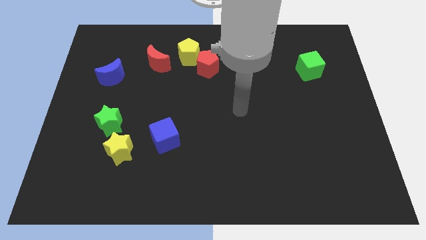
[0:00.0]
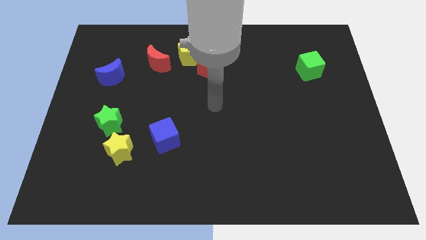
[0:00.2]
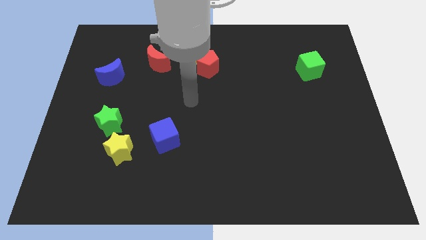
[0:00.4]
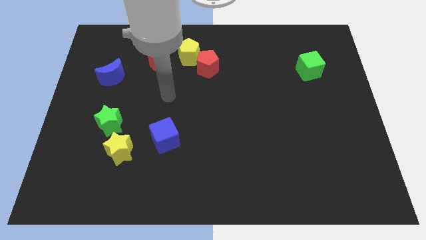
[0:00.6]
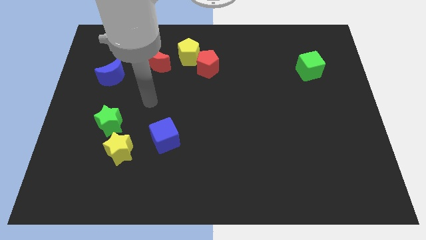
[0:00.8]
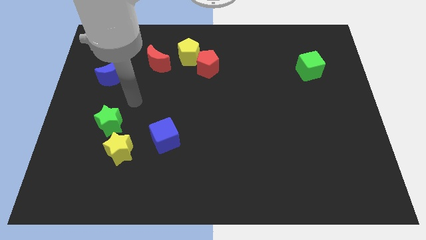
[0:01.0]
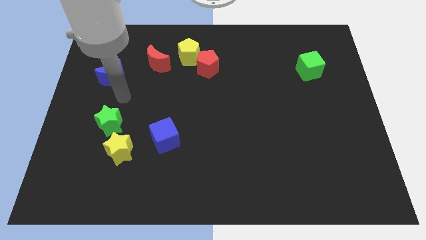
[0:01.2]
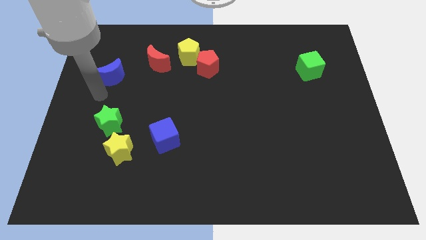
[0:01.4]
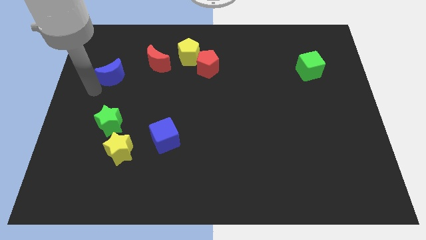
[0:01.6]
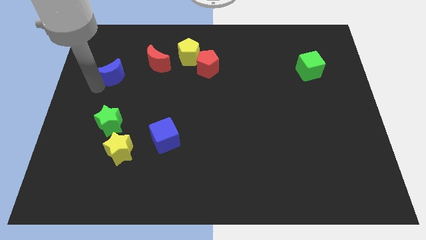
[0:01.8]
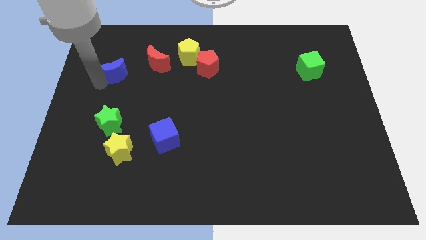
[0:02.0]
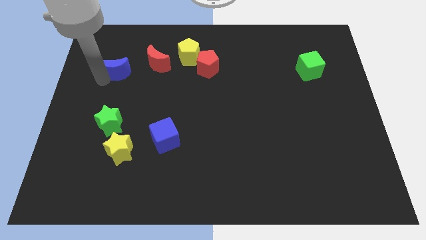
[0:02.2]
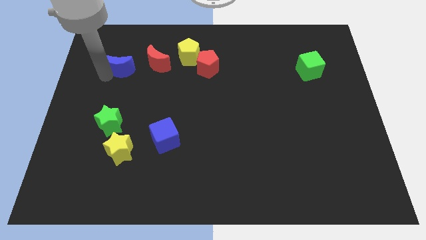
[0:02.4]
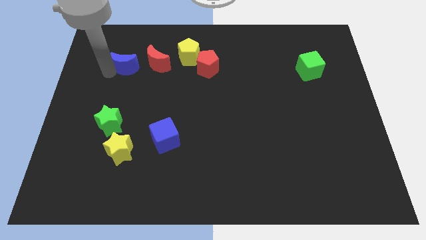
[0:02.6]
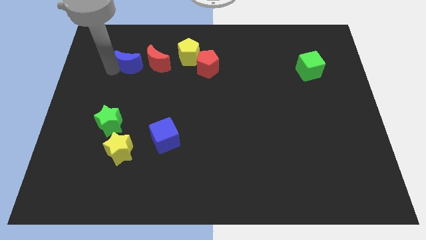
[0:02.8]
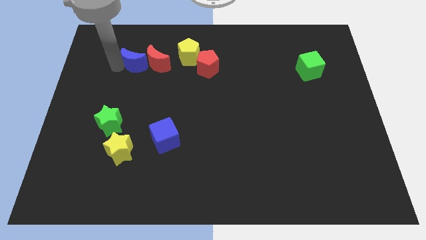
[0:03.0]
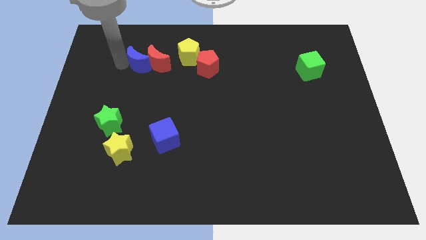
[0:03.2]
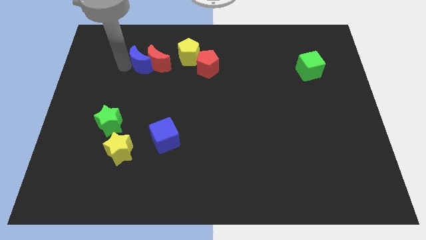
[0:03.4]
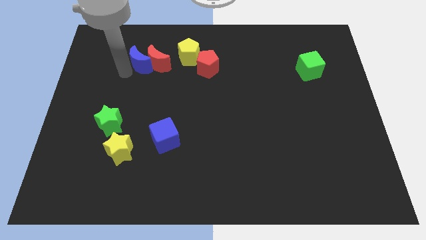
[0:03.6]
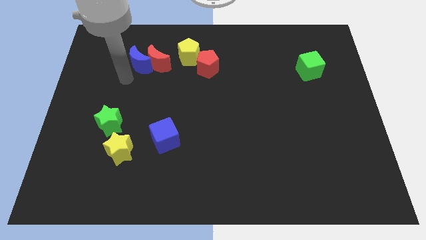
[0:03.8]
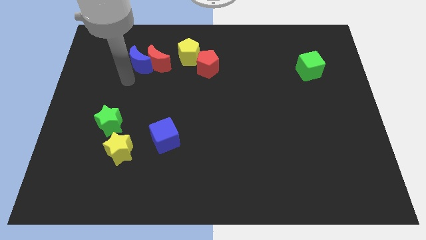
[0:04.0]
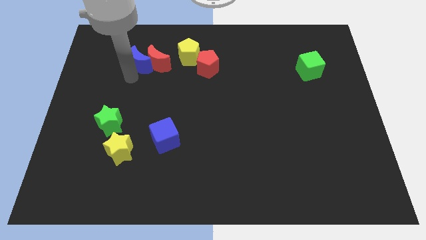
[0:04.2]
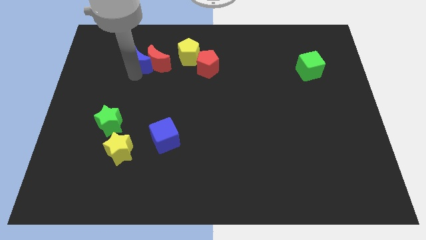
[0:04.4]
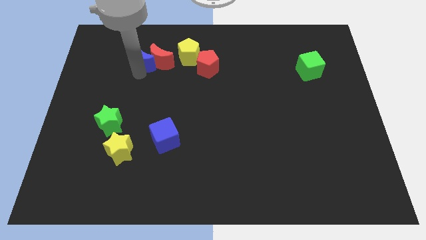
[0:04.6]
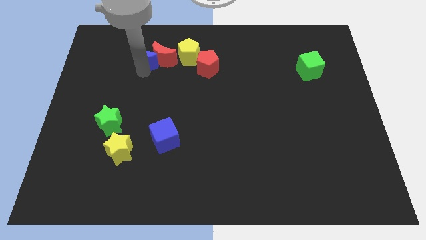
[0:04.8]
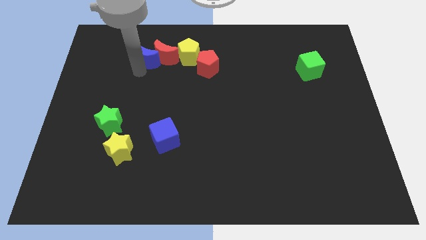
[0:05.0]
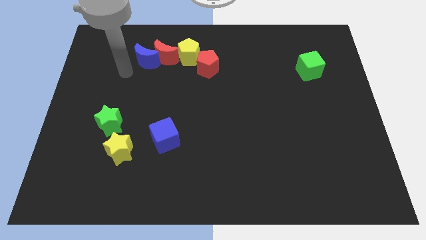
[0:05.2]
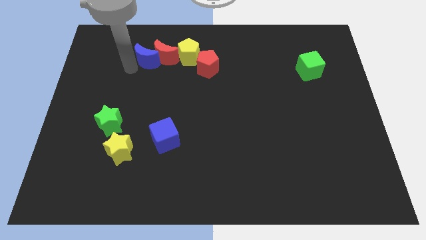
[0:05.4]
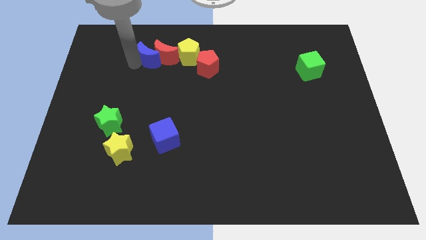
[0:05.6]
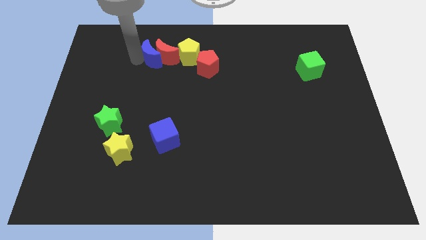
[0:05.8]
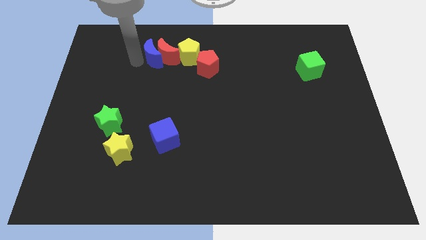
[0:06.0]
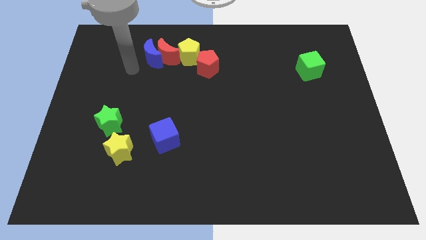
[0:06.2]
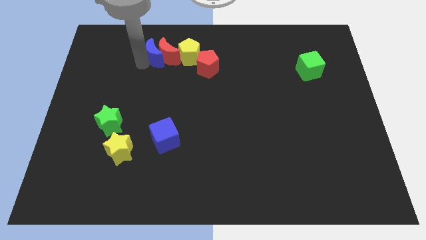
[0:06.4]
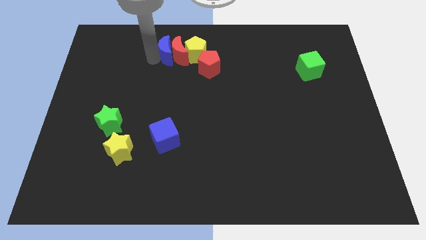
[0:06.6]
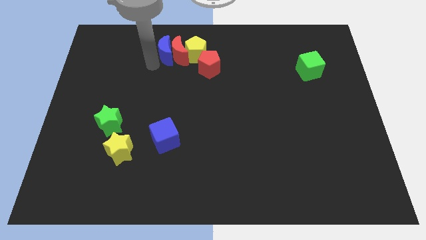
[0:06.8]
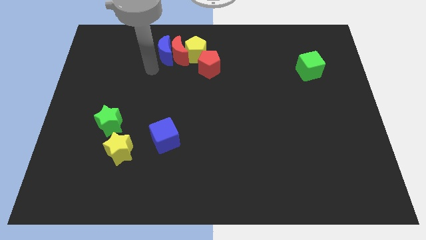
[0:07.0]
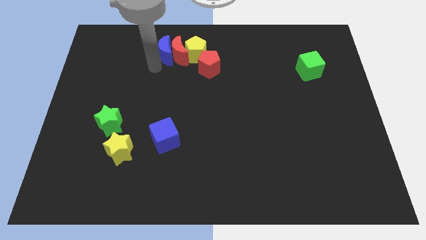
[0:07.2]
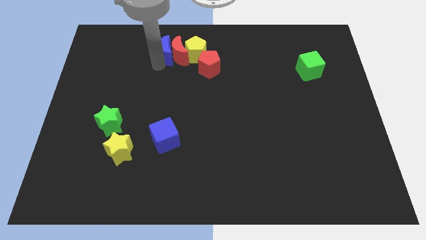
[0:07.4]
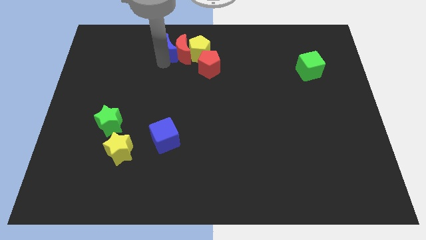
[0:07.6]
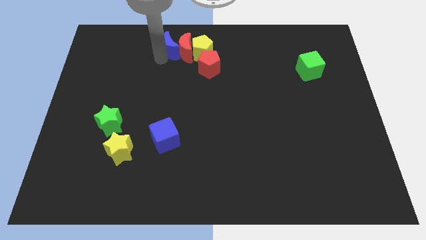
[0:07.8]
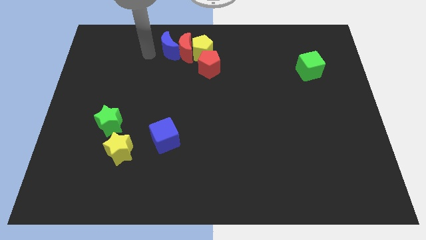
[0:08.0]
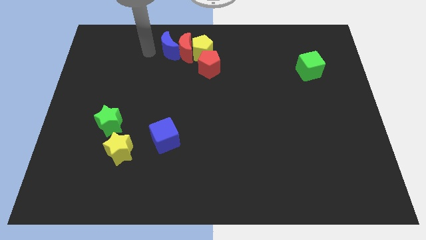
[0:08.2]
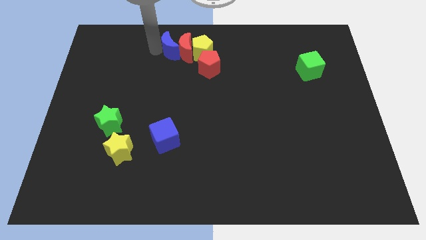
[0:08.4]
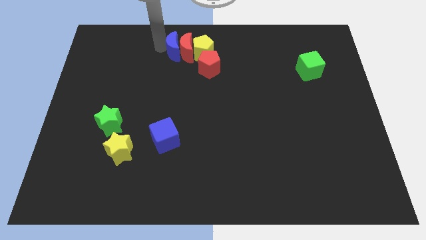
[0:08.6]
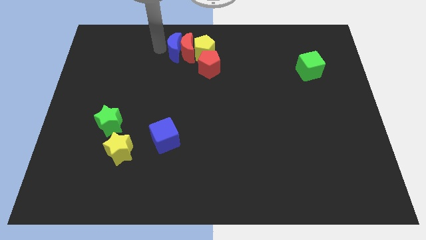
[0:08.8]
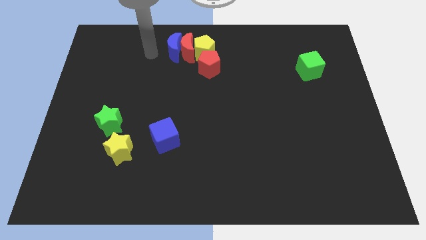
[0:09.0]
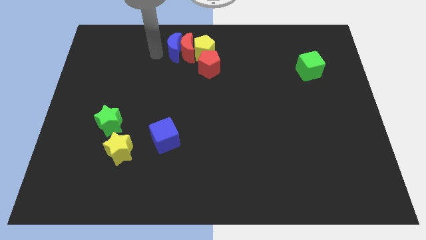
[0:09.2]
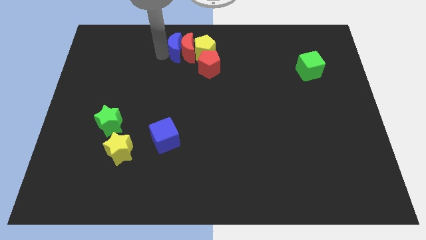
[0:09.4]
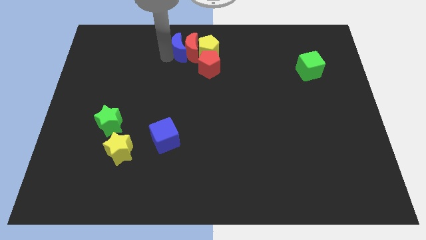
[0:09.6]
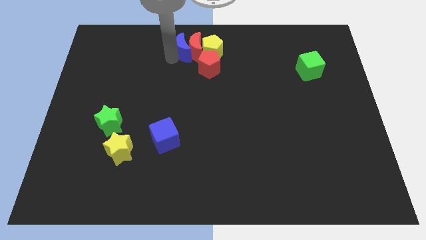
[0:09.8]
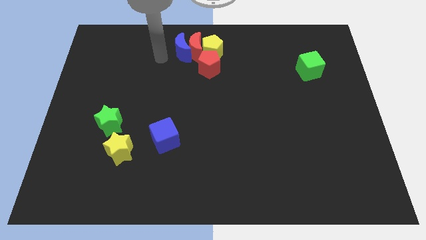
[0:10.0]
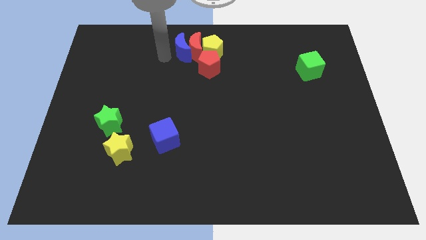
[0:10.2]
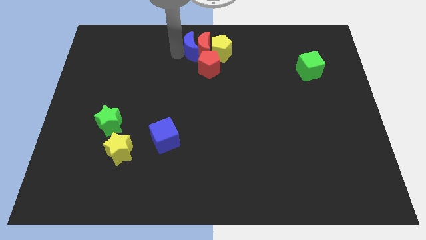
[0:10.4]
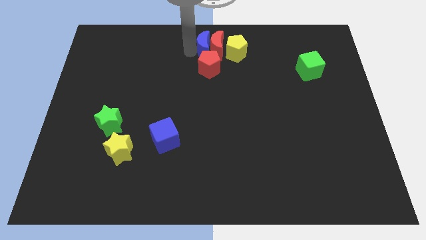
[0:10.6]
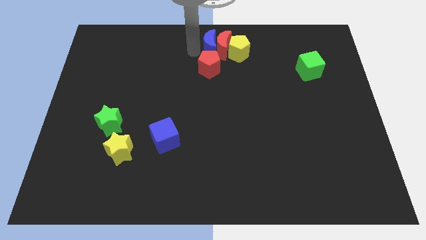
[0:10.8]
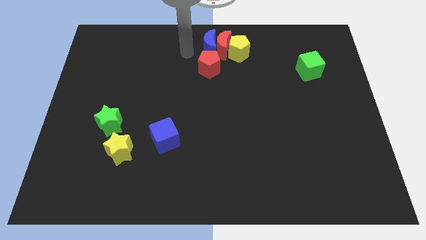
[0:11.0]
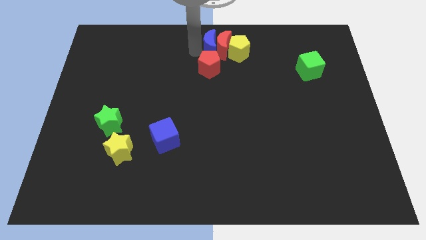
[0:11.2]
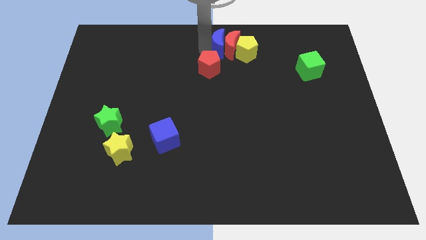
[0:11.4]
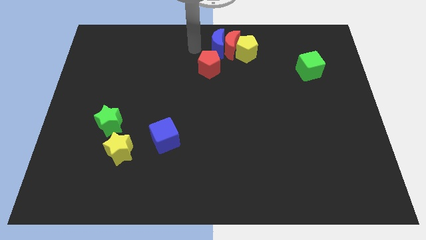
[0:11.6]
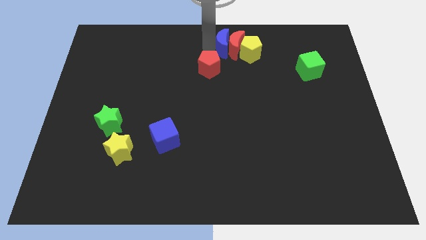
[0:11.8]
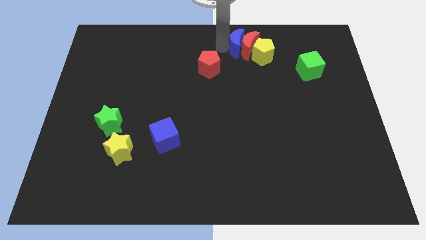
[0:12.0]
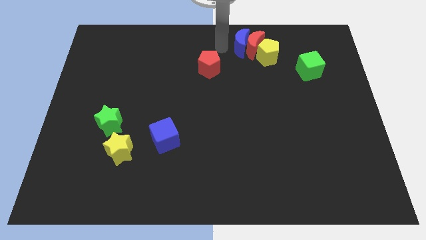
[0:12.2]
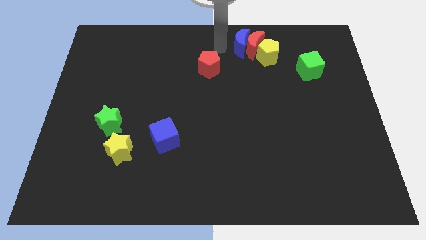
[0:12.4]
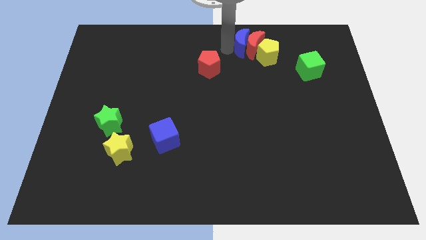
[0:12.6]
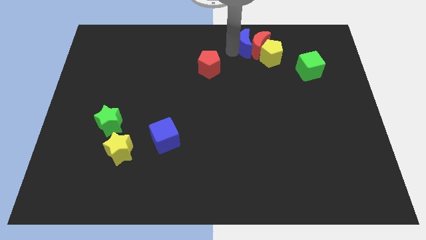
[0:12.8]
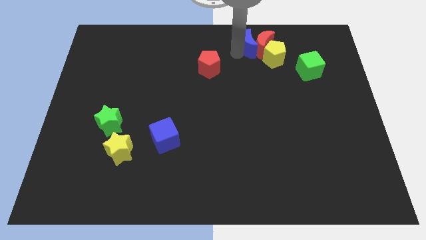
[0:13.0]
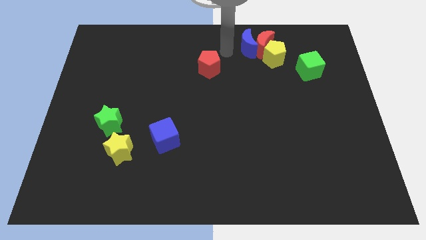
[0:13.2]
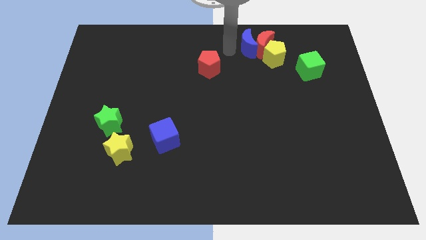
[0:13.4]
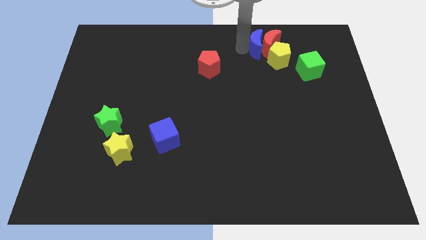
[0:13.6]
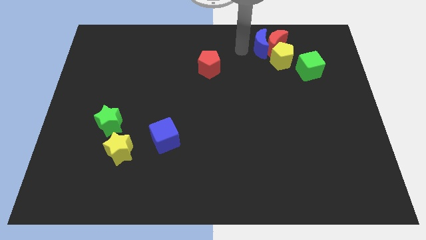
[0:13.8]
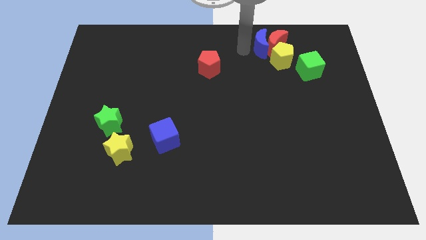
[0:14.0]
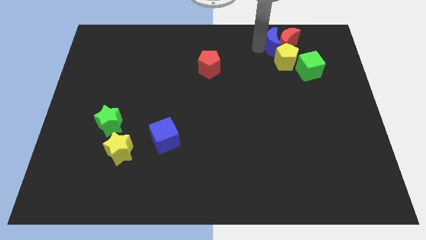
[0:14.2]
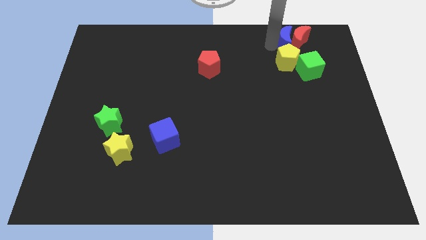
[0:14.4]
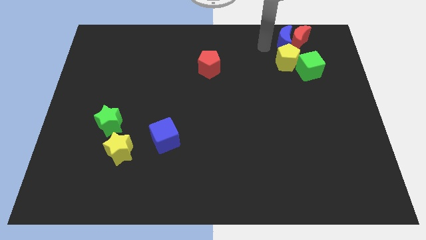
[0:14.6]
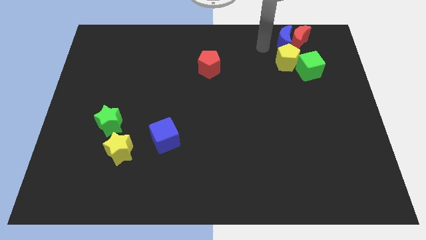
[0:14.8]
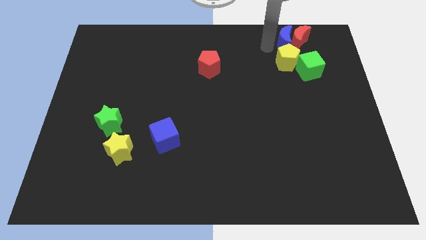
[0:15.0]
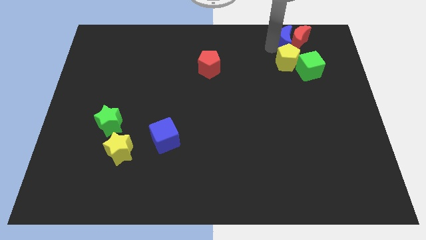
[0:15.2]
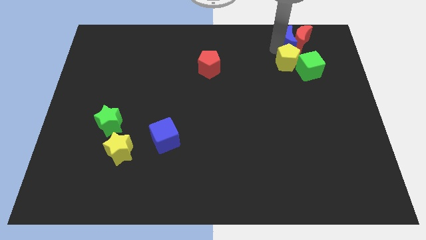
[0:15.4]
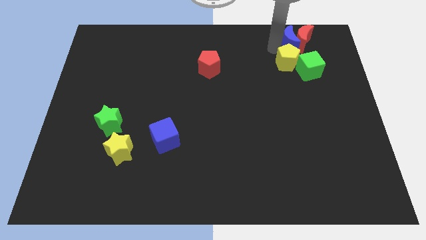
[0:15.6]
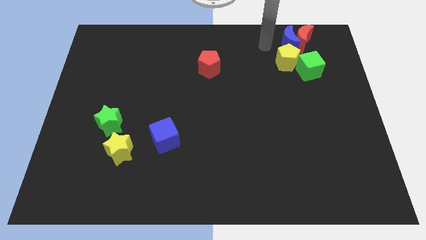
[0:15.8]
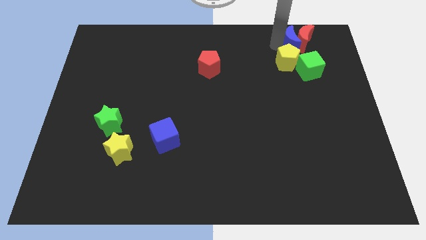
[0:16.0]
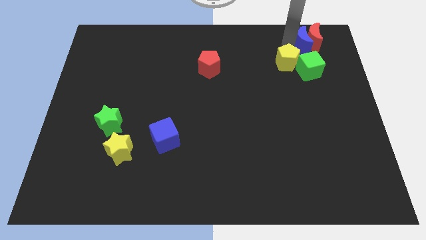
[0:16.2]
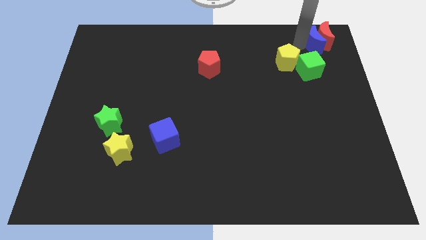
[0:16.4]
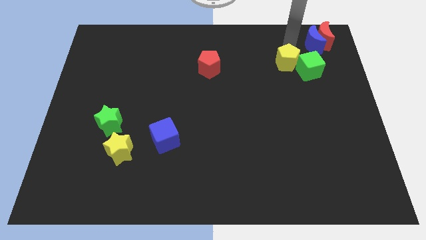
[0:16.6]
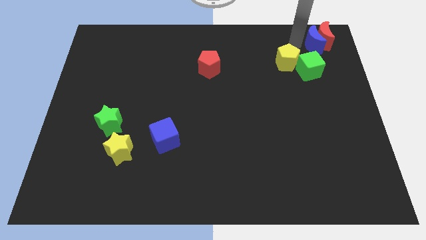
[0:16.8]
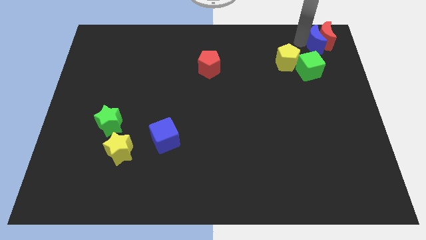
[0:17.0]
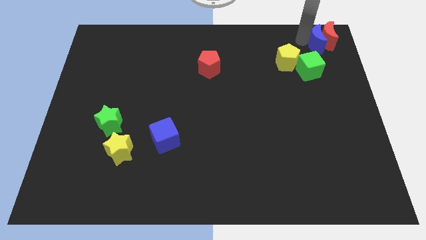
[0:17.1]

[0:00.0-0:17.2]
slide the blue moon to the top right of the board
